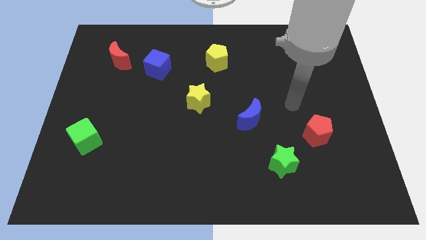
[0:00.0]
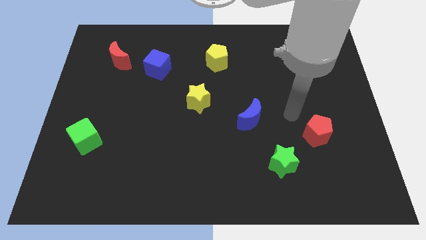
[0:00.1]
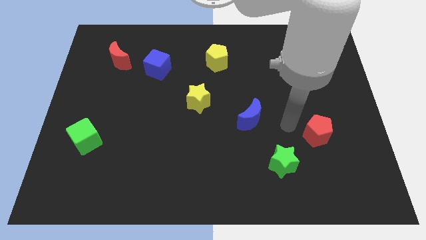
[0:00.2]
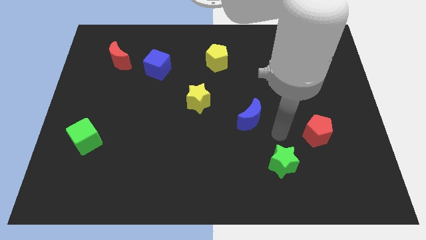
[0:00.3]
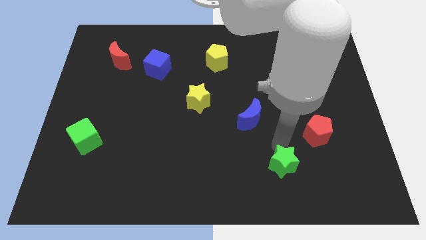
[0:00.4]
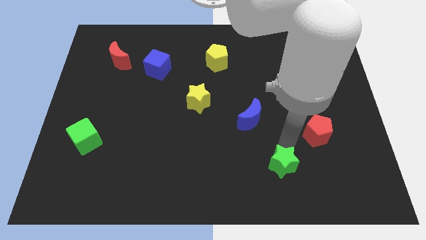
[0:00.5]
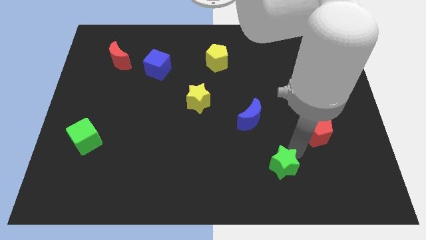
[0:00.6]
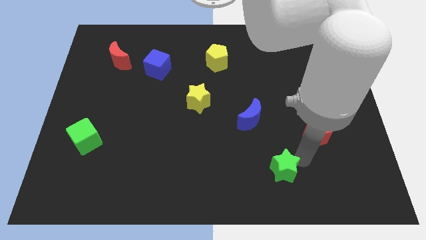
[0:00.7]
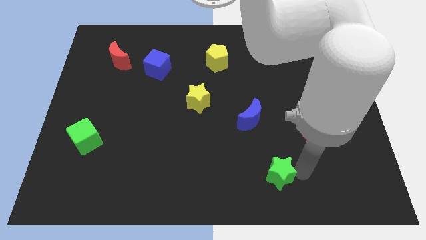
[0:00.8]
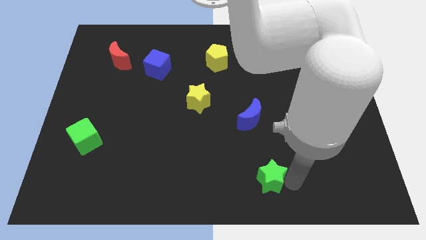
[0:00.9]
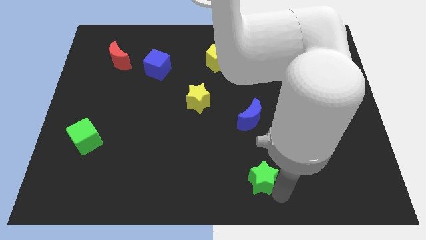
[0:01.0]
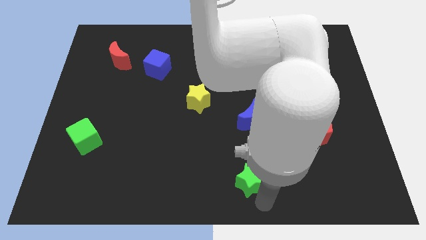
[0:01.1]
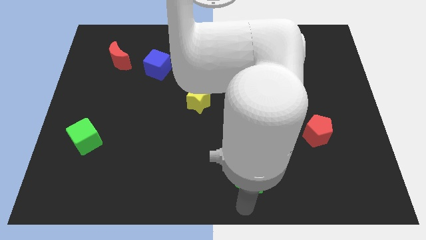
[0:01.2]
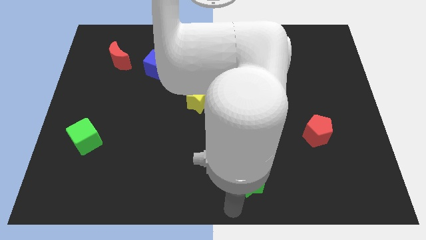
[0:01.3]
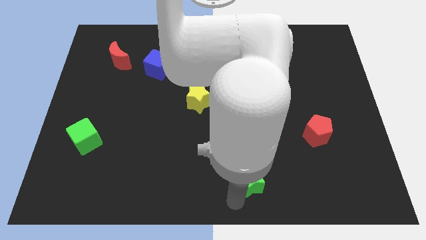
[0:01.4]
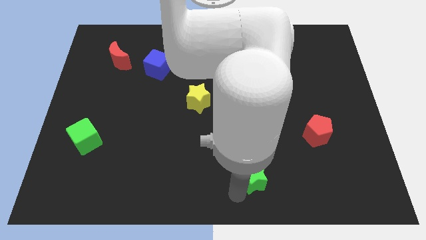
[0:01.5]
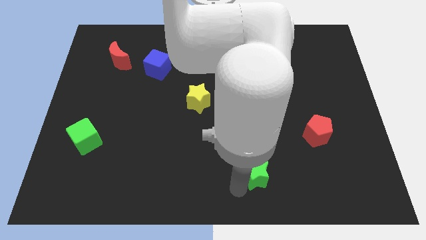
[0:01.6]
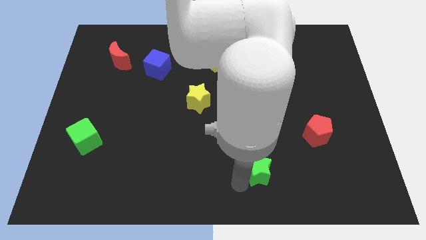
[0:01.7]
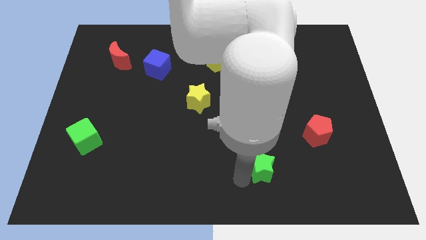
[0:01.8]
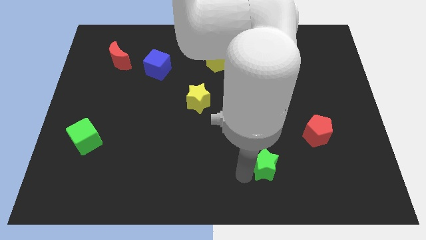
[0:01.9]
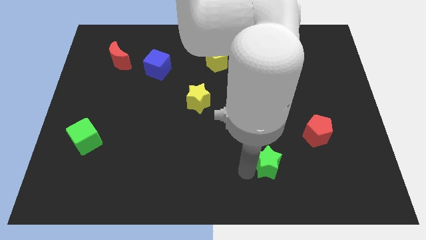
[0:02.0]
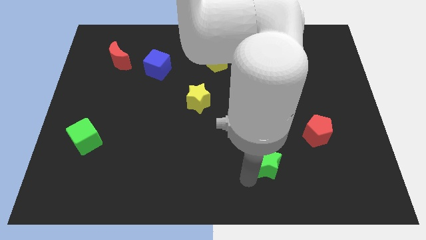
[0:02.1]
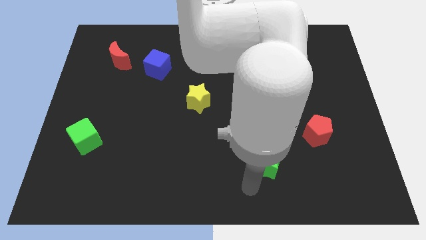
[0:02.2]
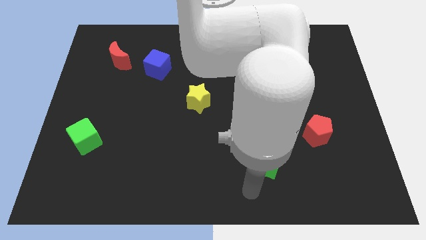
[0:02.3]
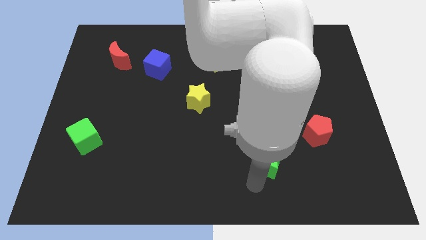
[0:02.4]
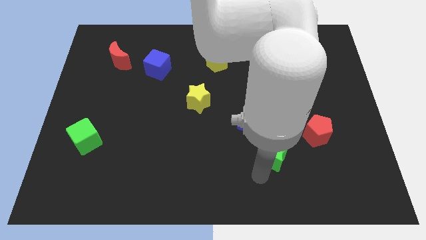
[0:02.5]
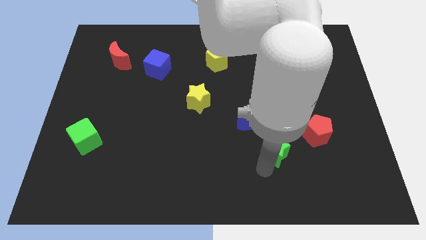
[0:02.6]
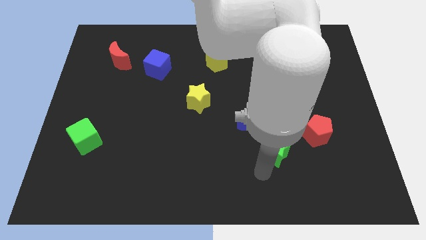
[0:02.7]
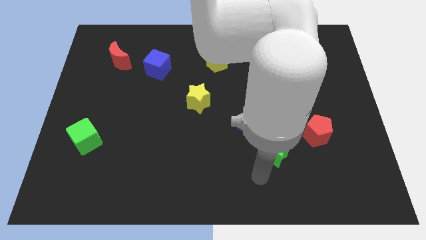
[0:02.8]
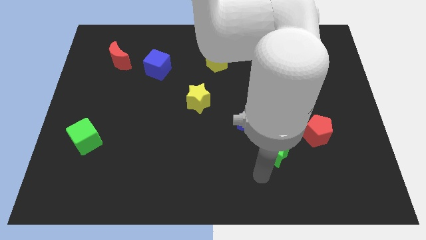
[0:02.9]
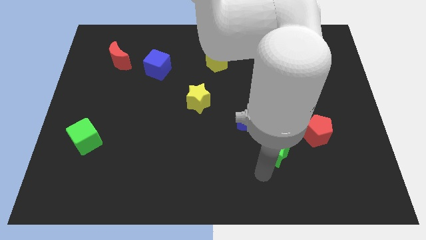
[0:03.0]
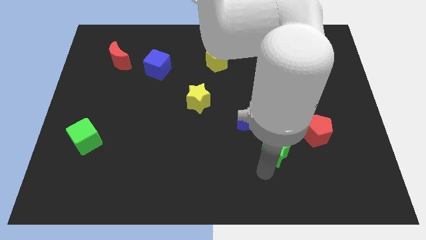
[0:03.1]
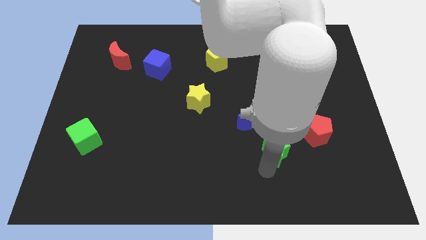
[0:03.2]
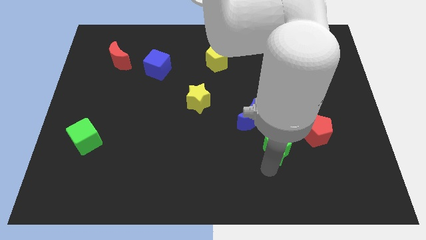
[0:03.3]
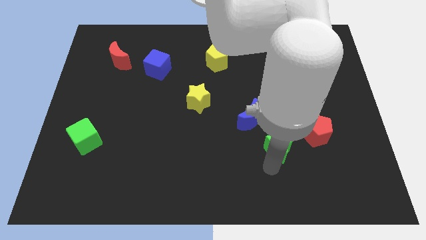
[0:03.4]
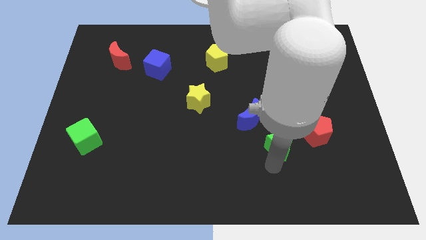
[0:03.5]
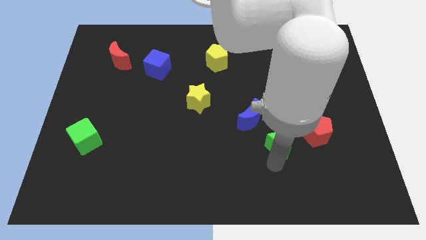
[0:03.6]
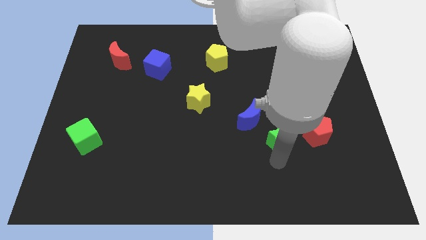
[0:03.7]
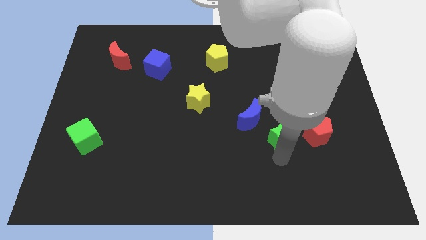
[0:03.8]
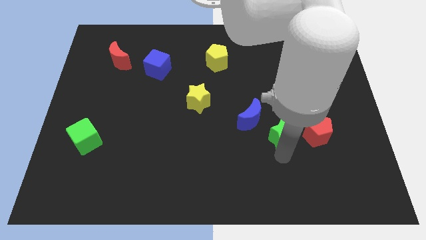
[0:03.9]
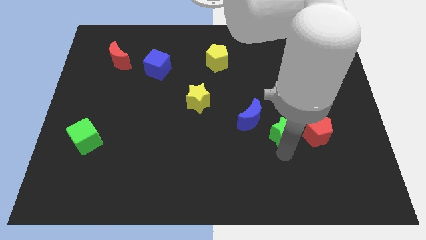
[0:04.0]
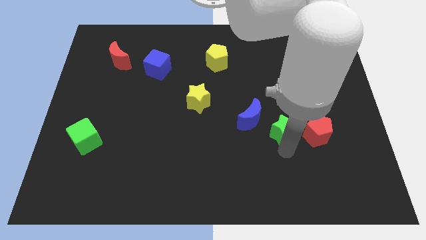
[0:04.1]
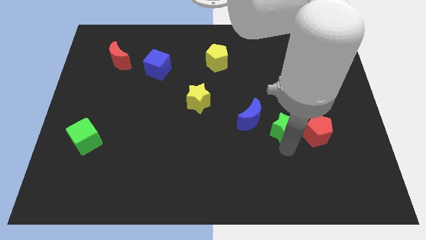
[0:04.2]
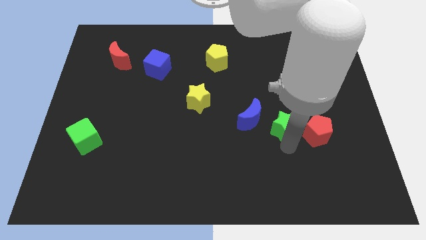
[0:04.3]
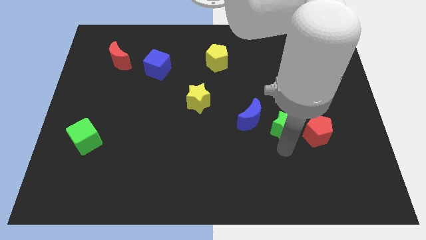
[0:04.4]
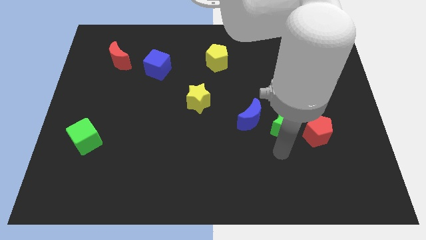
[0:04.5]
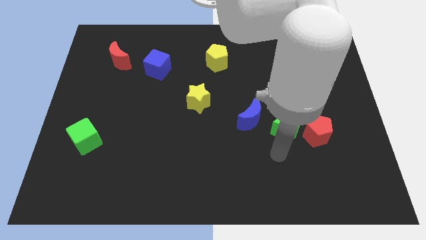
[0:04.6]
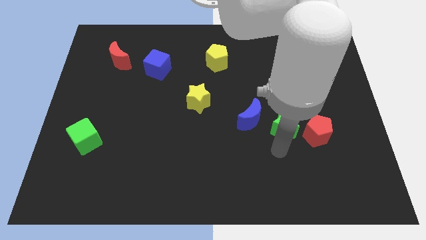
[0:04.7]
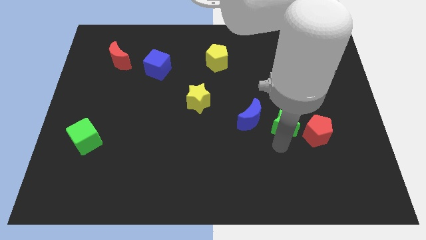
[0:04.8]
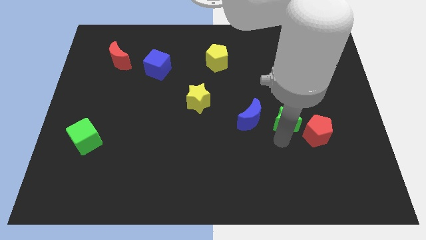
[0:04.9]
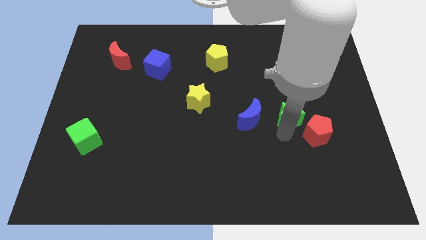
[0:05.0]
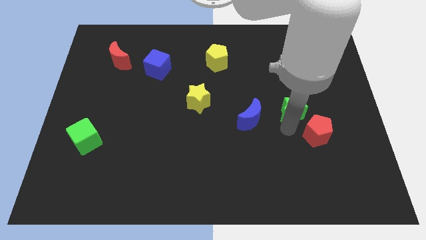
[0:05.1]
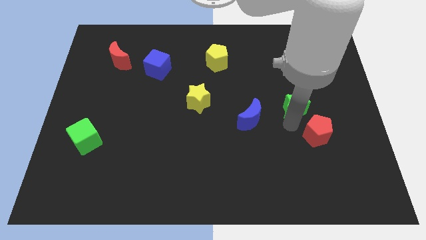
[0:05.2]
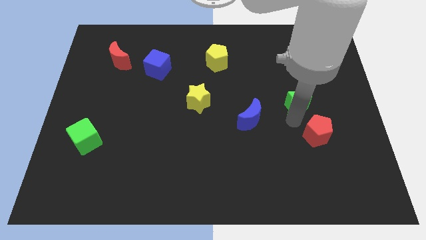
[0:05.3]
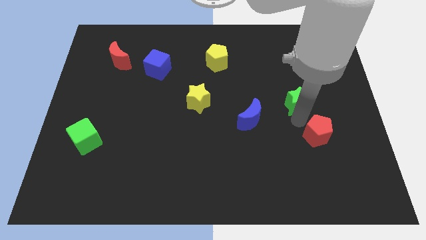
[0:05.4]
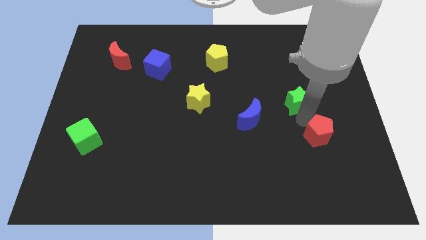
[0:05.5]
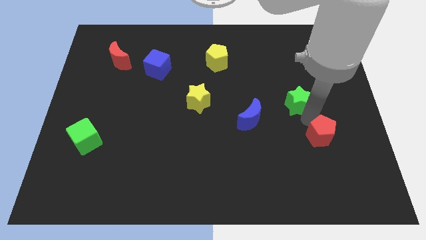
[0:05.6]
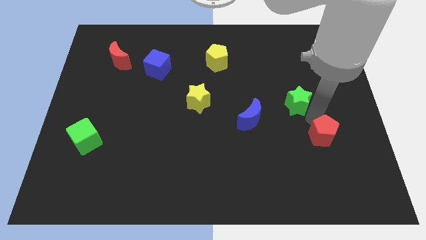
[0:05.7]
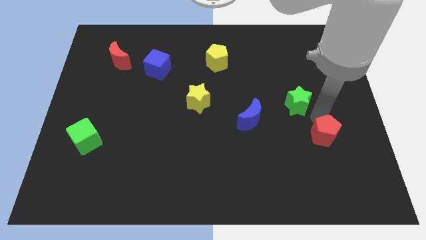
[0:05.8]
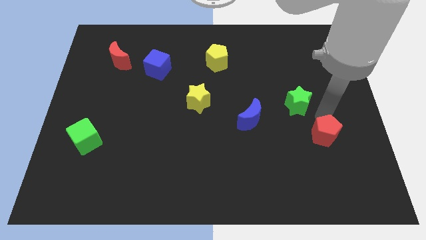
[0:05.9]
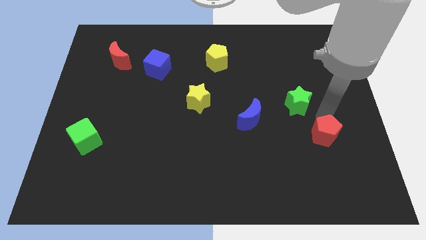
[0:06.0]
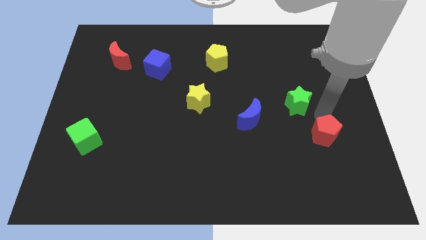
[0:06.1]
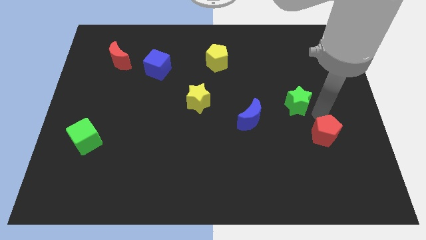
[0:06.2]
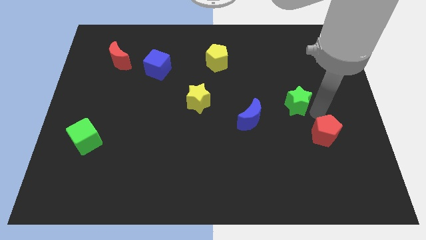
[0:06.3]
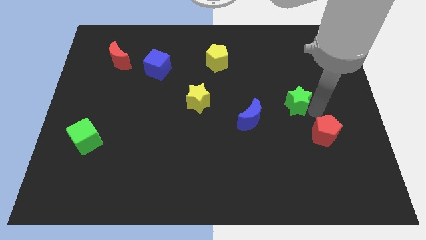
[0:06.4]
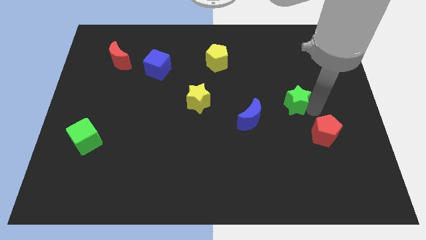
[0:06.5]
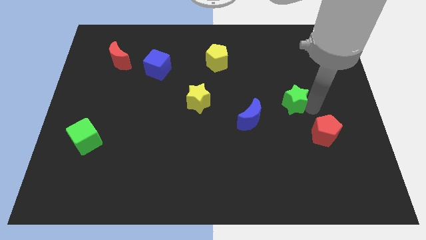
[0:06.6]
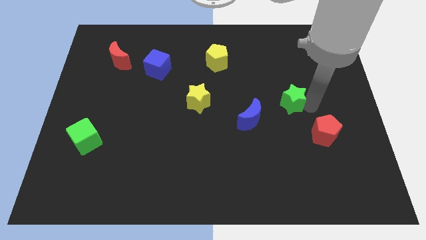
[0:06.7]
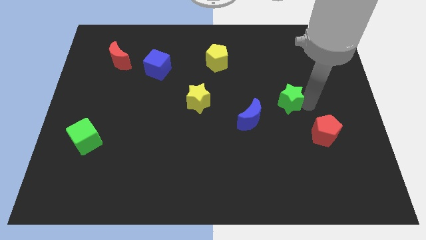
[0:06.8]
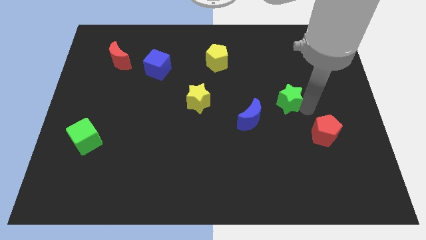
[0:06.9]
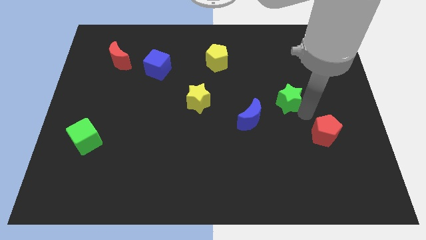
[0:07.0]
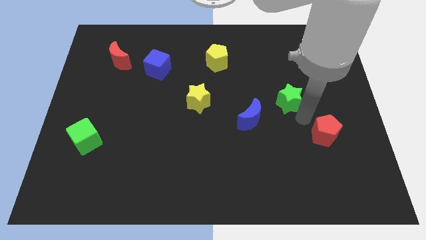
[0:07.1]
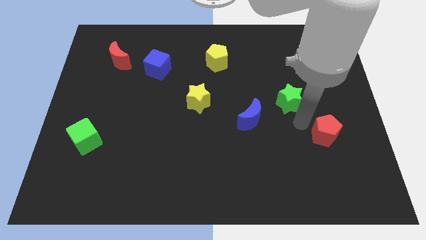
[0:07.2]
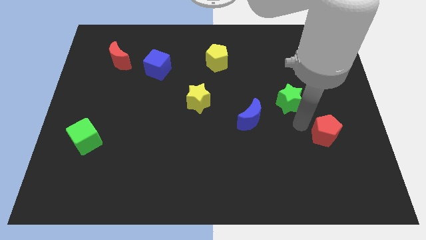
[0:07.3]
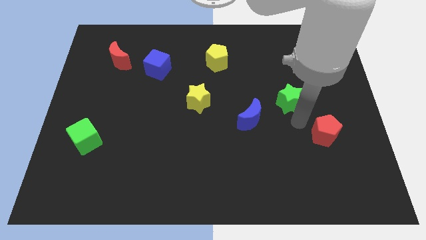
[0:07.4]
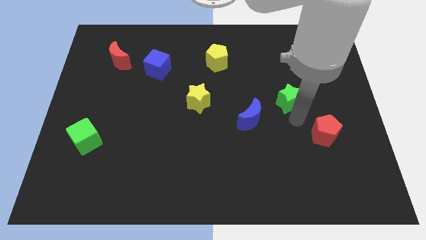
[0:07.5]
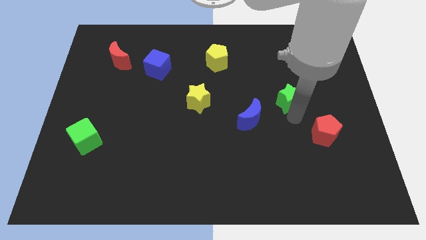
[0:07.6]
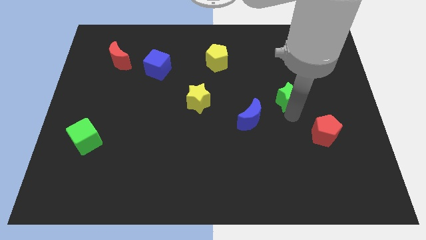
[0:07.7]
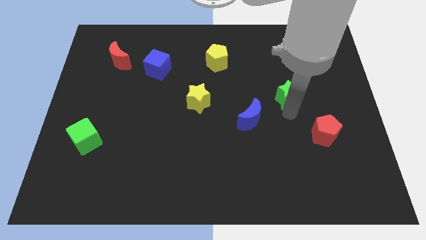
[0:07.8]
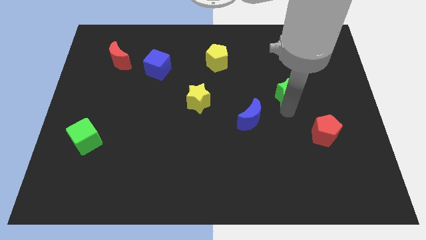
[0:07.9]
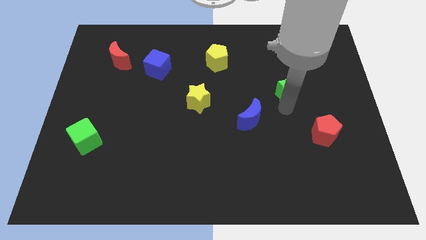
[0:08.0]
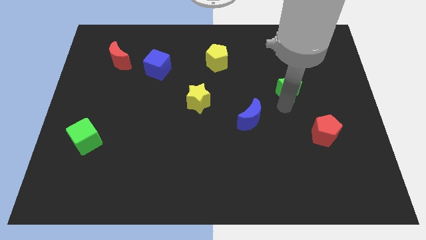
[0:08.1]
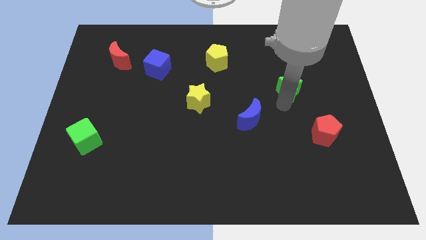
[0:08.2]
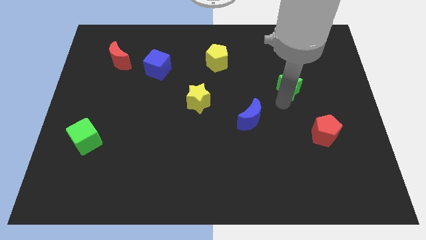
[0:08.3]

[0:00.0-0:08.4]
push the green star up
